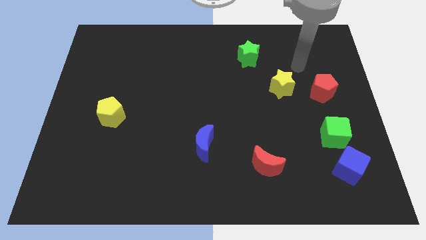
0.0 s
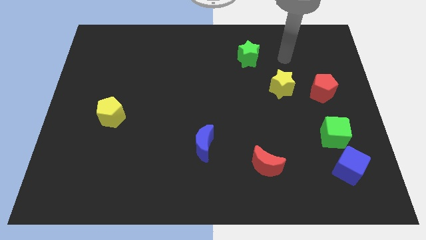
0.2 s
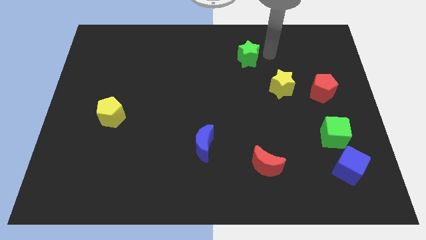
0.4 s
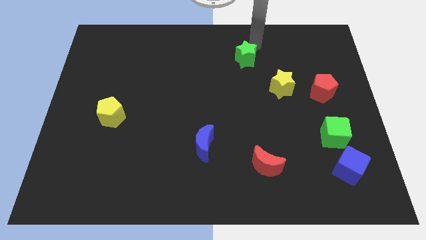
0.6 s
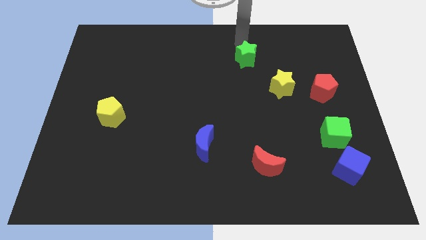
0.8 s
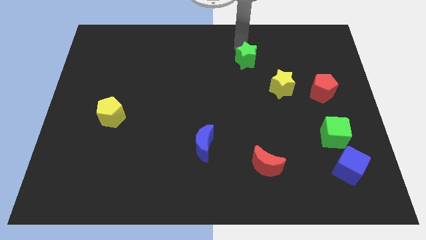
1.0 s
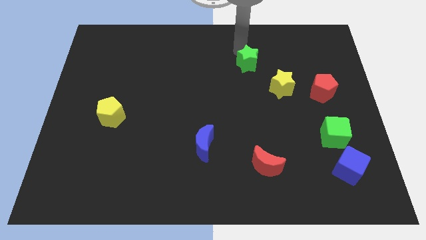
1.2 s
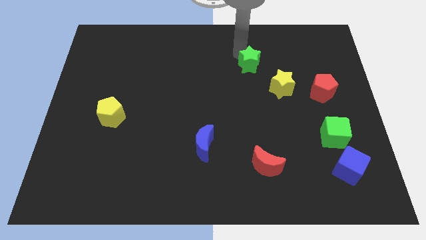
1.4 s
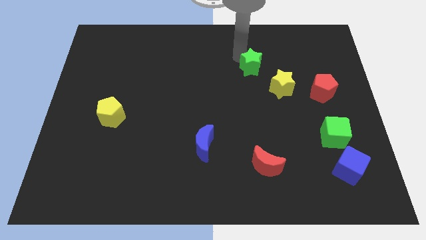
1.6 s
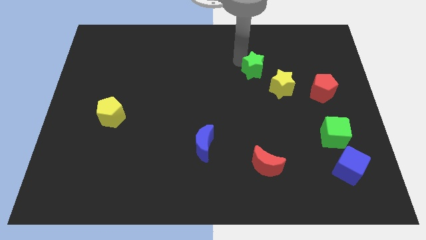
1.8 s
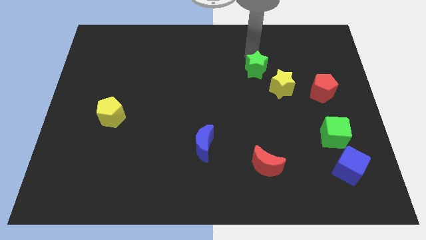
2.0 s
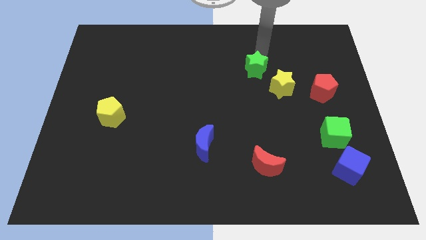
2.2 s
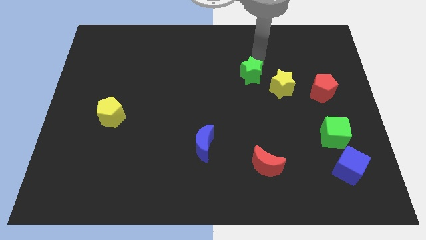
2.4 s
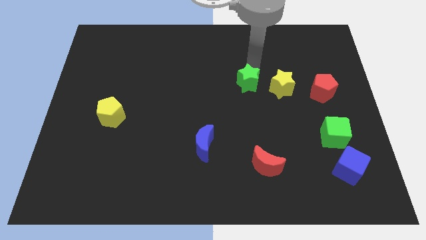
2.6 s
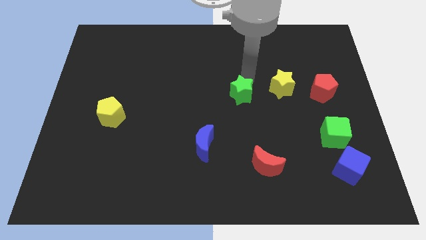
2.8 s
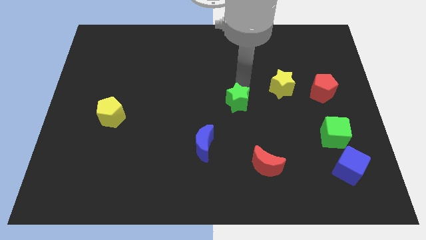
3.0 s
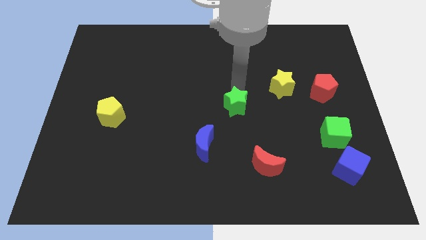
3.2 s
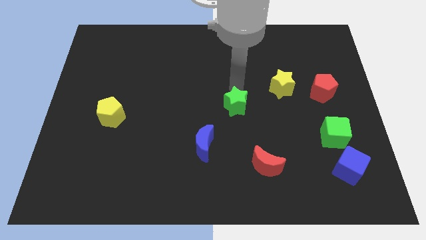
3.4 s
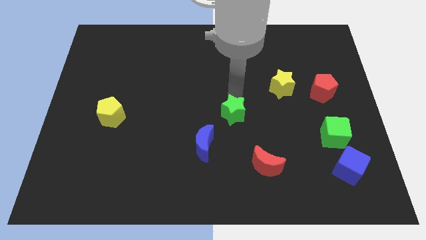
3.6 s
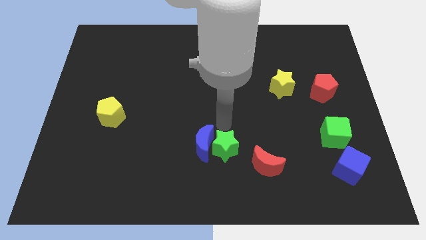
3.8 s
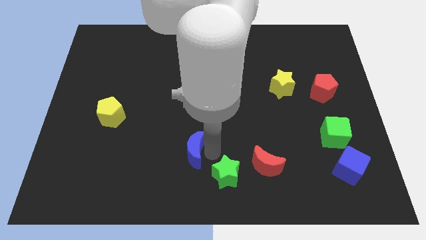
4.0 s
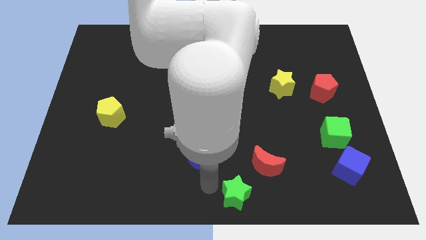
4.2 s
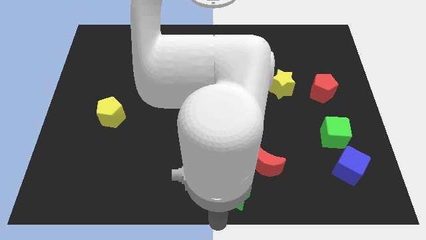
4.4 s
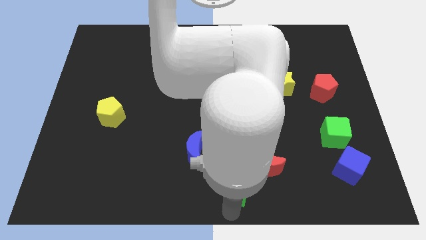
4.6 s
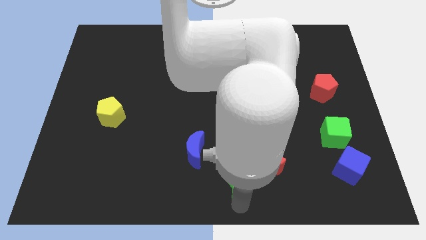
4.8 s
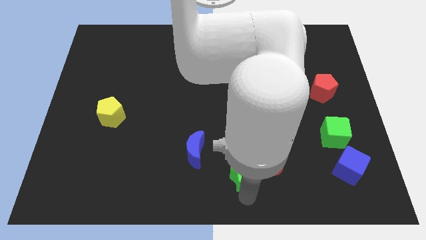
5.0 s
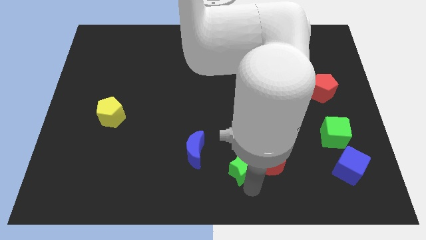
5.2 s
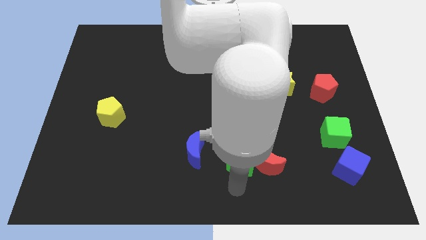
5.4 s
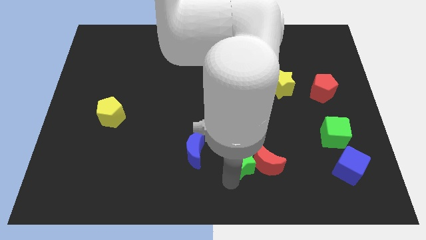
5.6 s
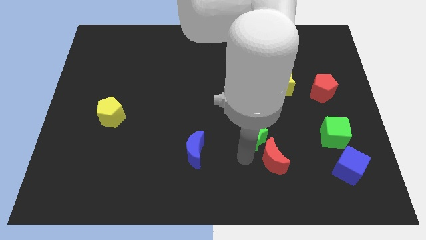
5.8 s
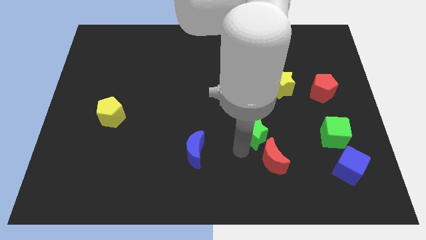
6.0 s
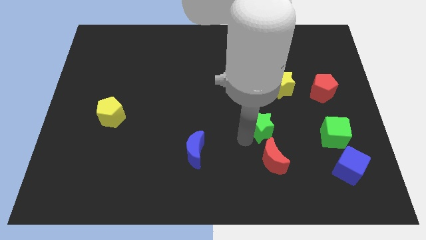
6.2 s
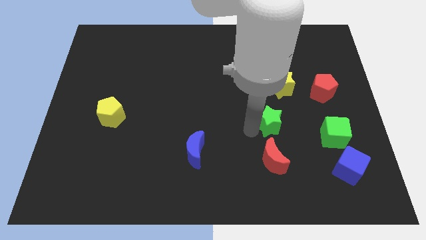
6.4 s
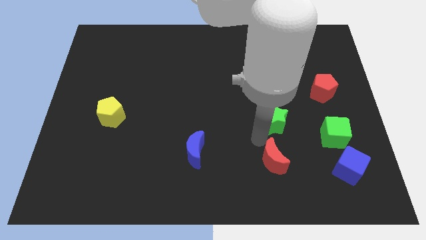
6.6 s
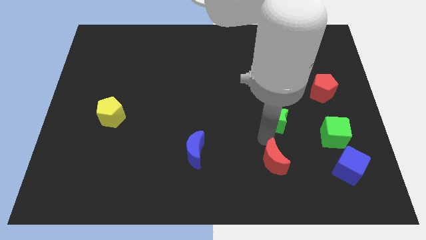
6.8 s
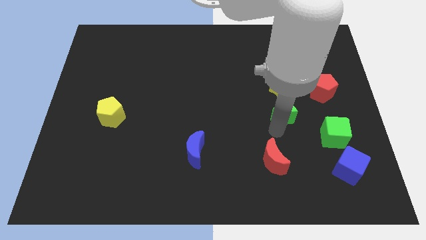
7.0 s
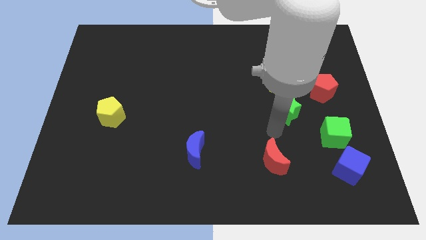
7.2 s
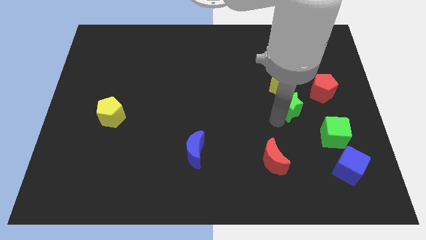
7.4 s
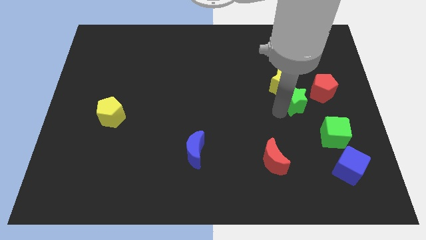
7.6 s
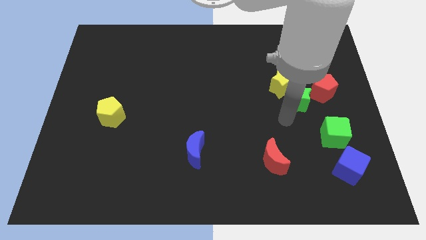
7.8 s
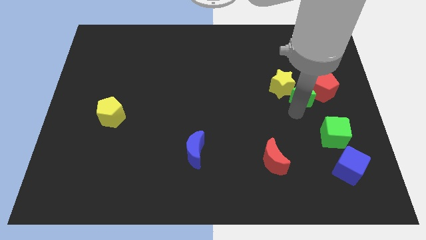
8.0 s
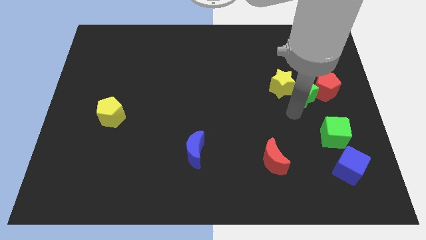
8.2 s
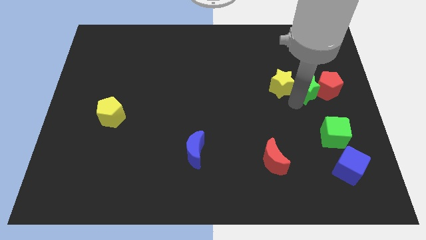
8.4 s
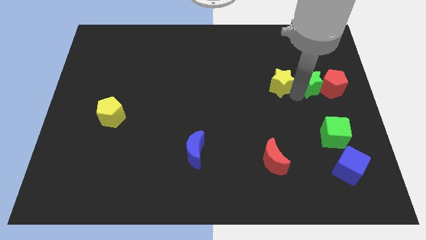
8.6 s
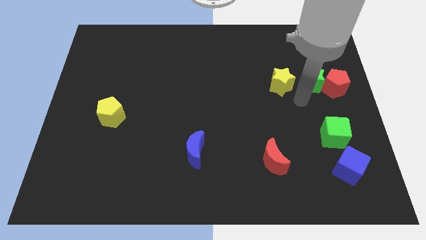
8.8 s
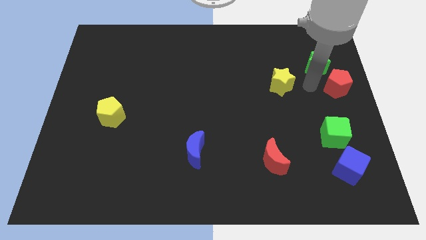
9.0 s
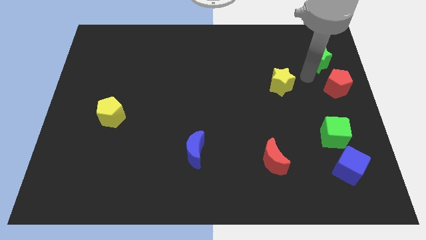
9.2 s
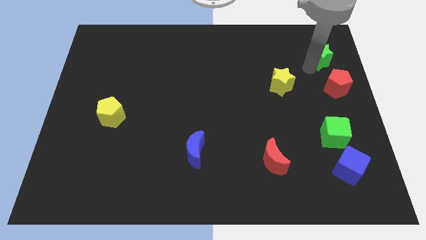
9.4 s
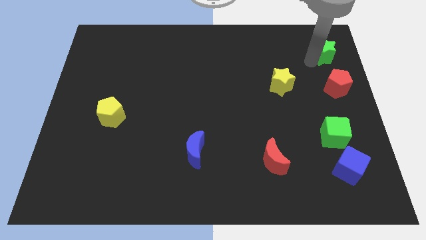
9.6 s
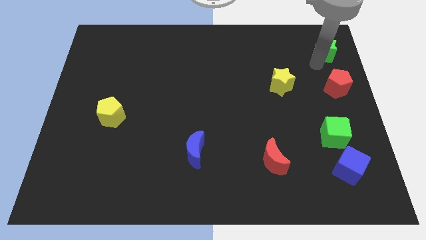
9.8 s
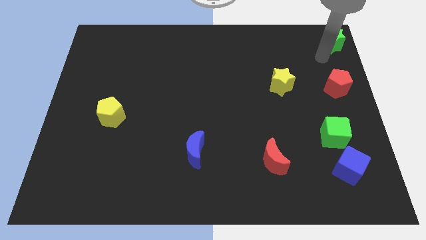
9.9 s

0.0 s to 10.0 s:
push the green star to the top right

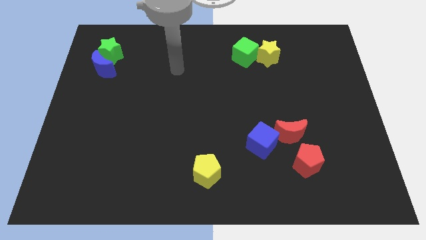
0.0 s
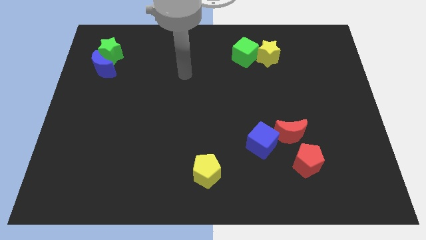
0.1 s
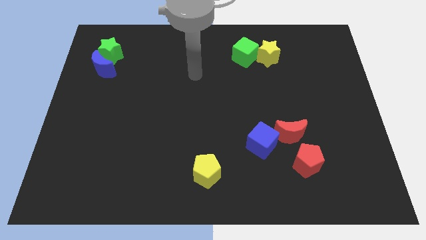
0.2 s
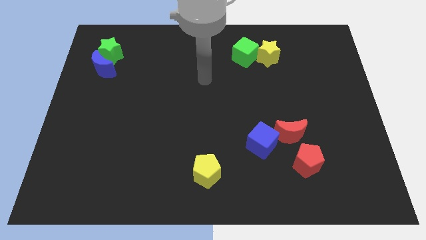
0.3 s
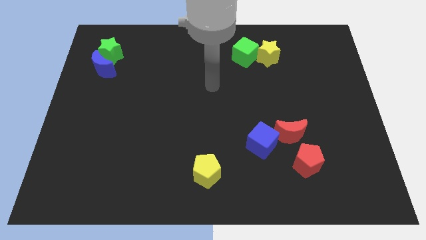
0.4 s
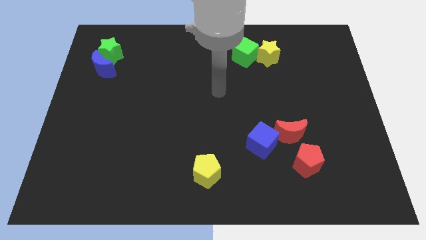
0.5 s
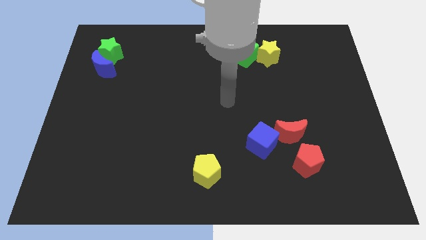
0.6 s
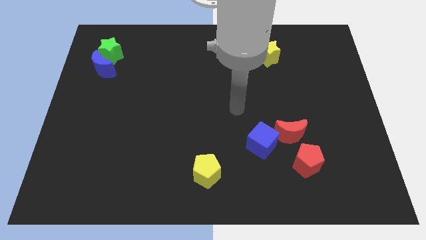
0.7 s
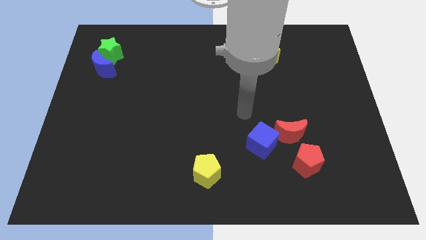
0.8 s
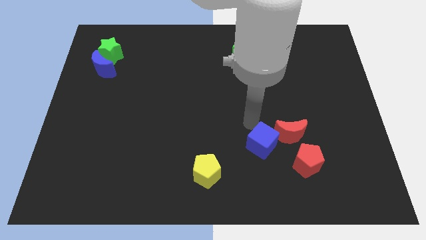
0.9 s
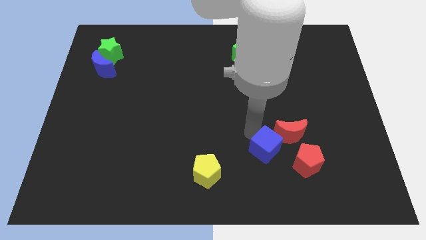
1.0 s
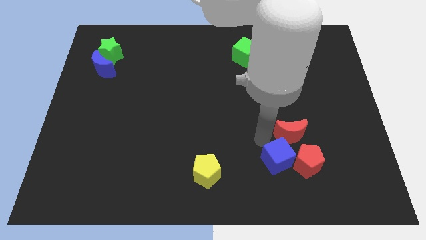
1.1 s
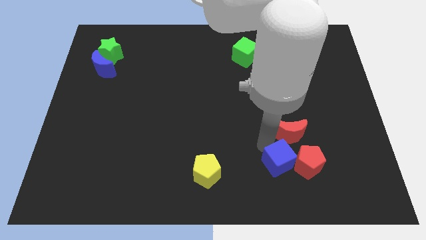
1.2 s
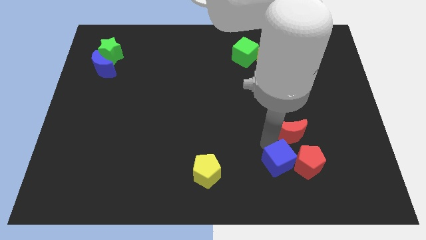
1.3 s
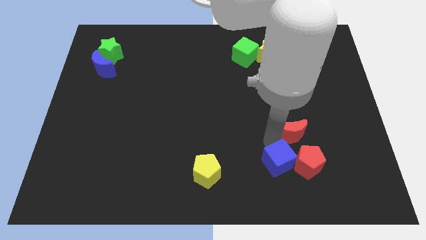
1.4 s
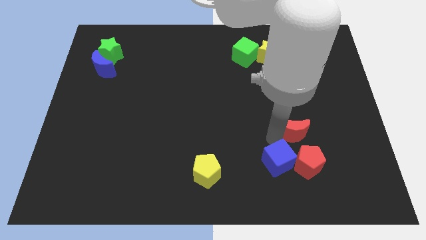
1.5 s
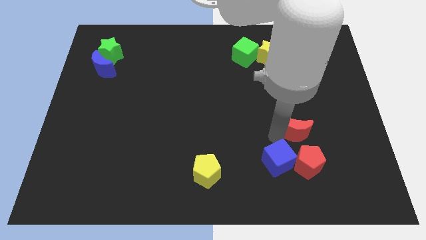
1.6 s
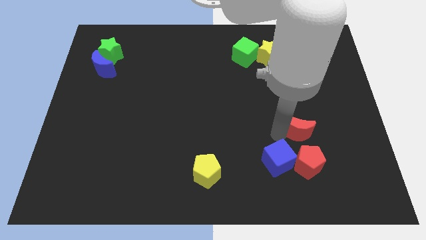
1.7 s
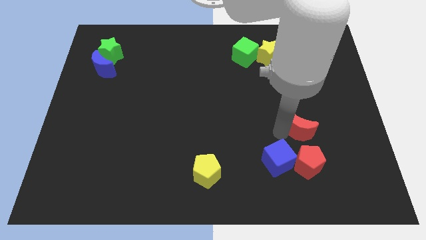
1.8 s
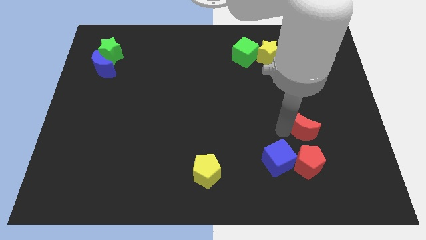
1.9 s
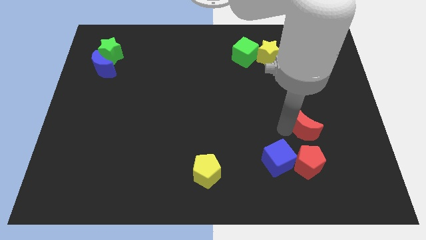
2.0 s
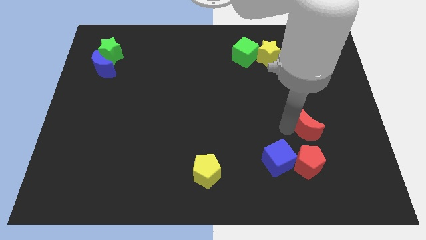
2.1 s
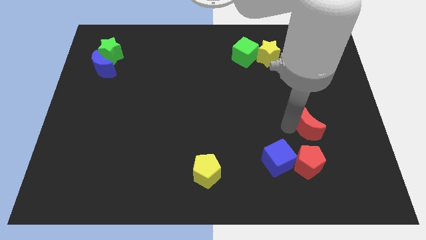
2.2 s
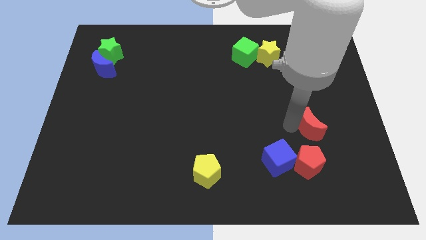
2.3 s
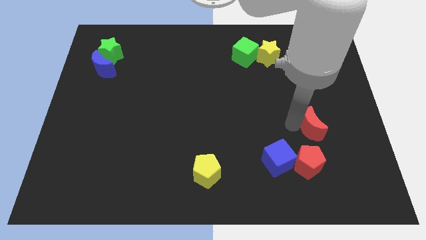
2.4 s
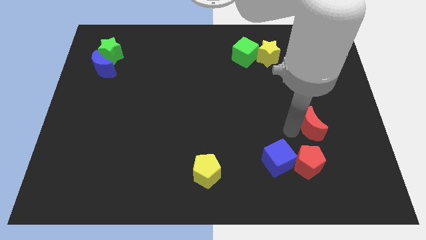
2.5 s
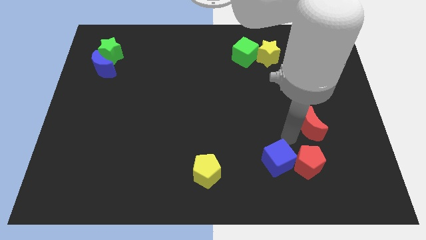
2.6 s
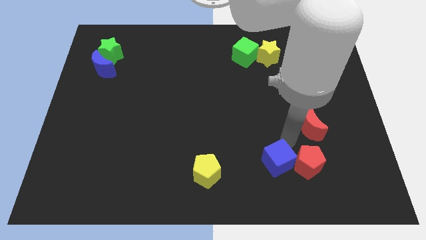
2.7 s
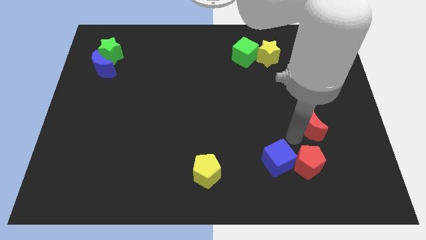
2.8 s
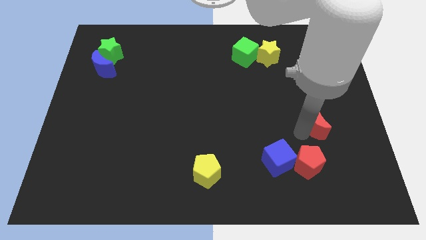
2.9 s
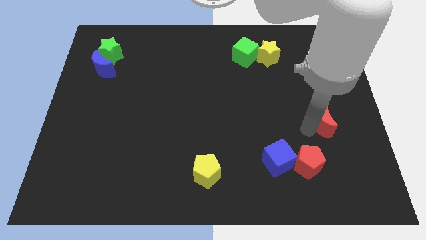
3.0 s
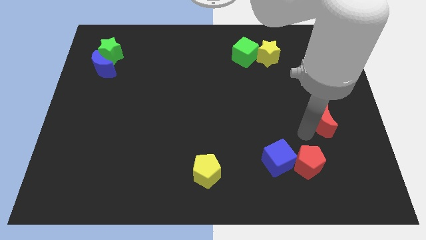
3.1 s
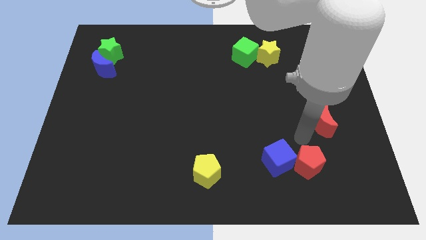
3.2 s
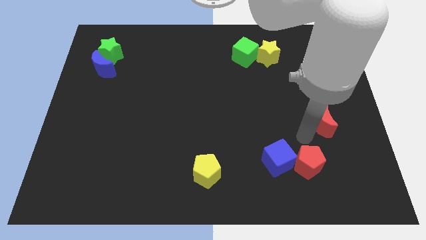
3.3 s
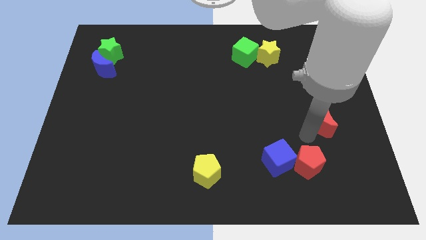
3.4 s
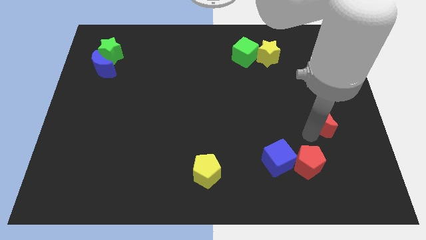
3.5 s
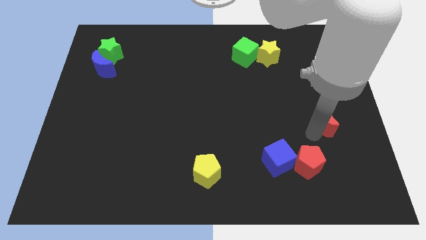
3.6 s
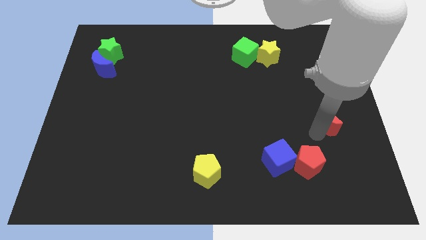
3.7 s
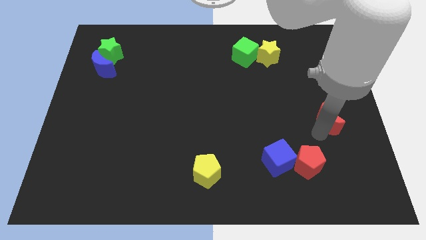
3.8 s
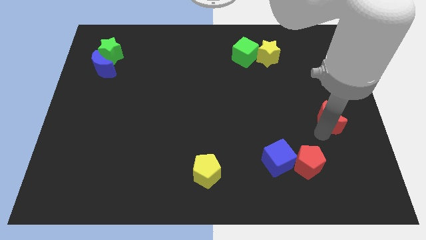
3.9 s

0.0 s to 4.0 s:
put the red moon to the right side
